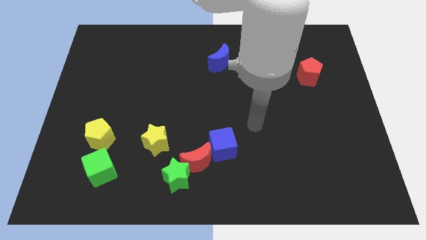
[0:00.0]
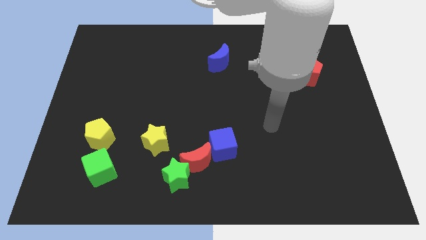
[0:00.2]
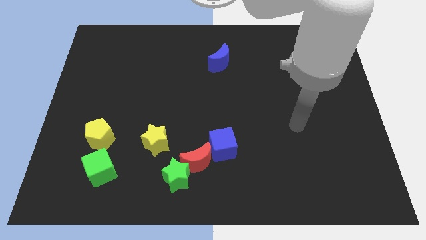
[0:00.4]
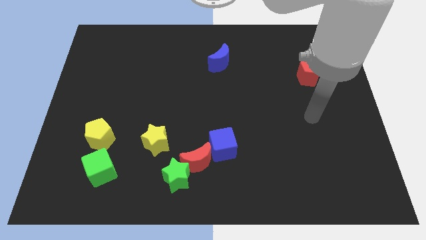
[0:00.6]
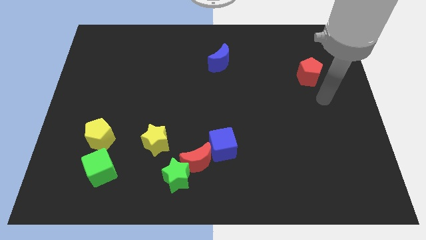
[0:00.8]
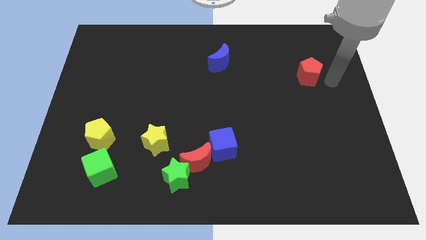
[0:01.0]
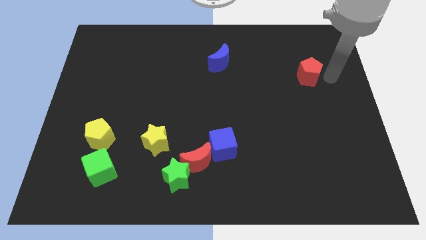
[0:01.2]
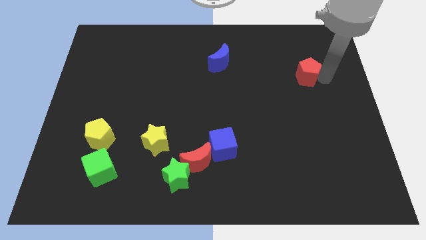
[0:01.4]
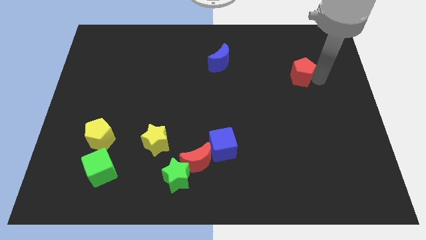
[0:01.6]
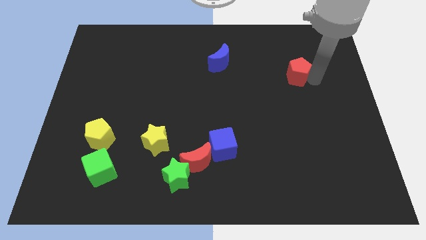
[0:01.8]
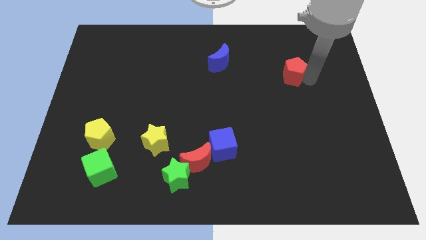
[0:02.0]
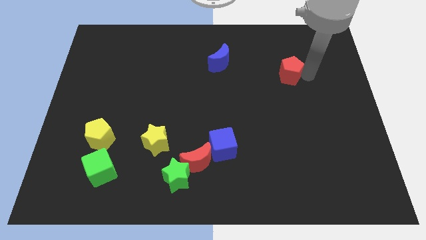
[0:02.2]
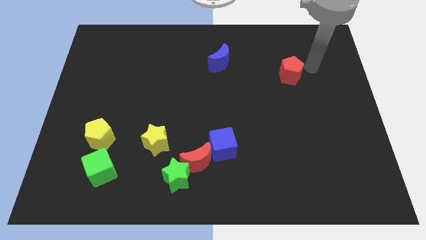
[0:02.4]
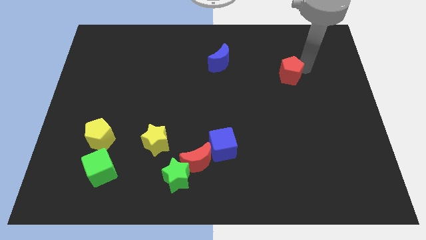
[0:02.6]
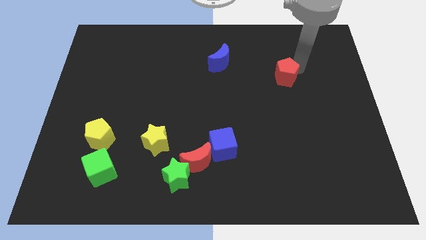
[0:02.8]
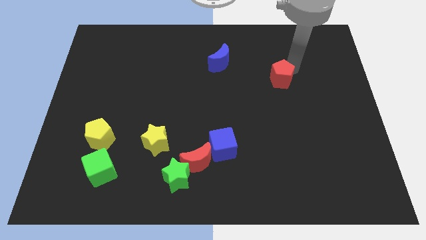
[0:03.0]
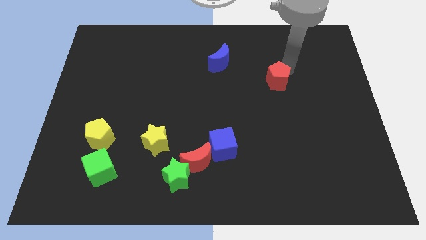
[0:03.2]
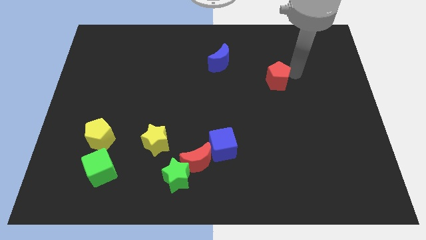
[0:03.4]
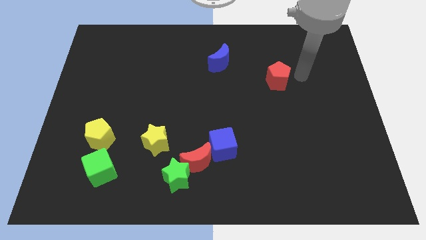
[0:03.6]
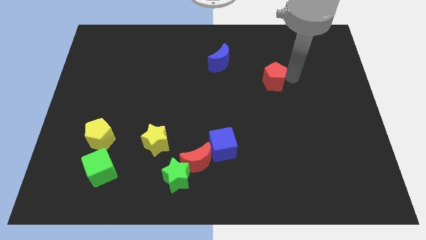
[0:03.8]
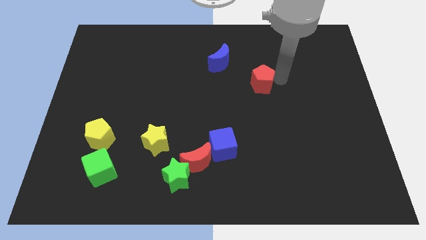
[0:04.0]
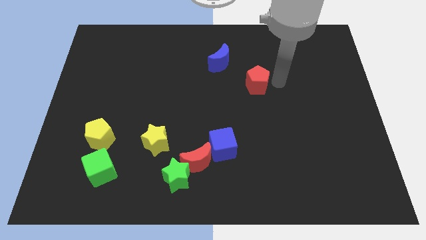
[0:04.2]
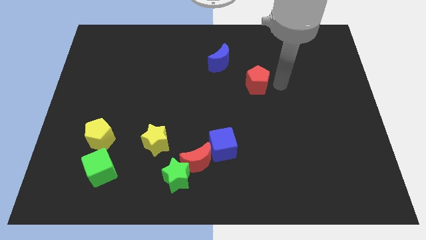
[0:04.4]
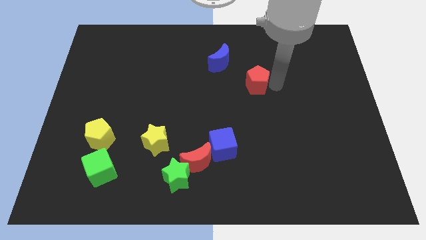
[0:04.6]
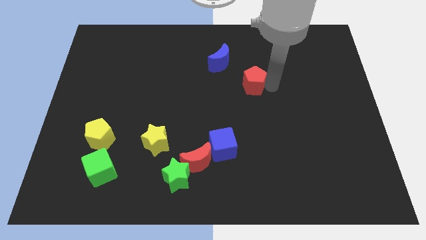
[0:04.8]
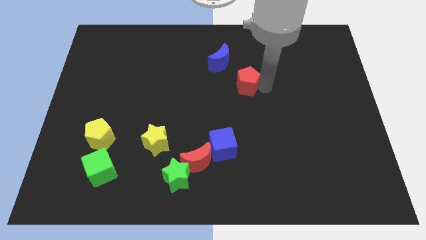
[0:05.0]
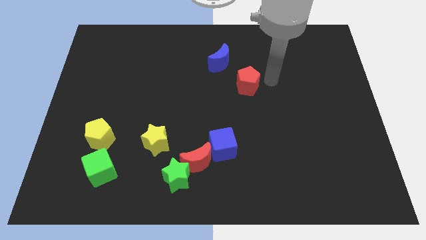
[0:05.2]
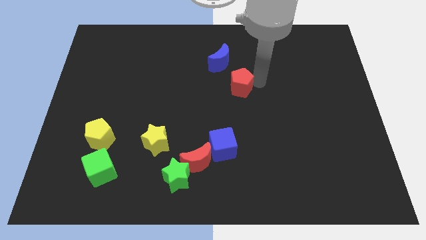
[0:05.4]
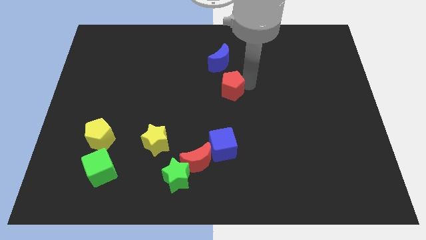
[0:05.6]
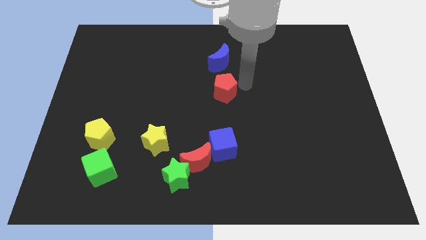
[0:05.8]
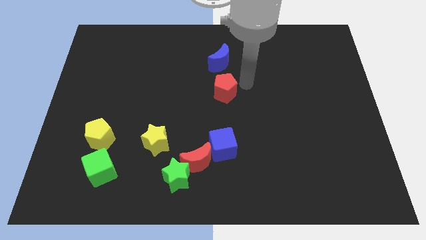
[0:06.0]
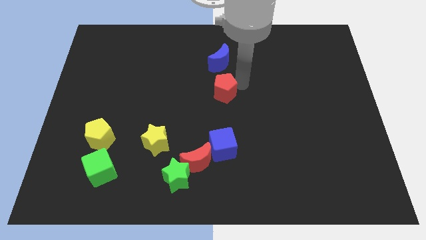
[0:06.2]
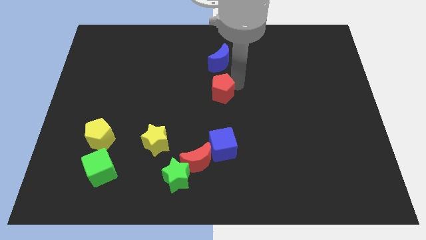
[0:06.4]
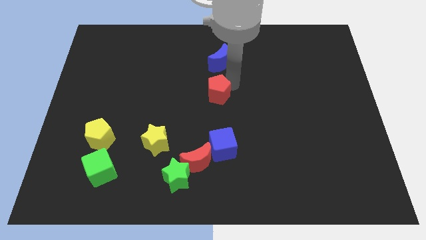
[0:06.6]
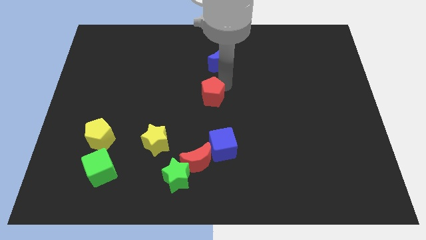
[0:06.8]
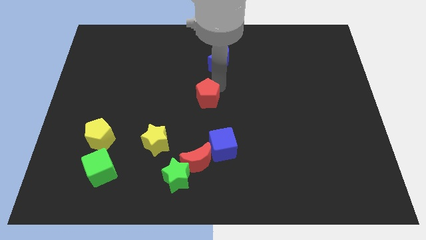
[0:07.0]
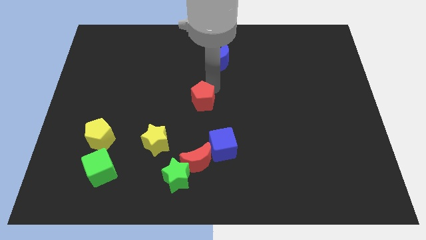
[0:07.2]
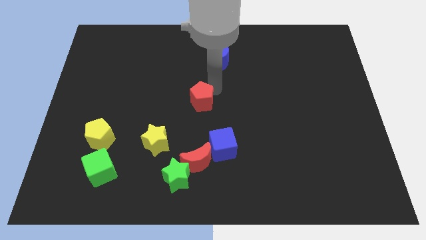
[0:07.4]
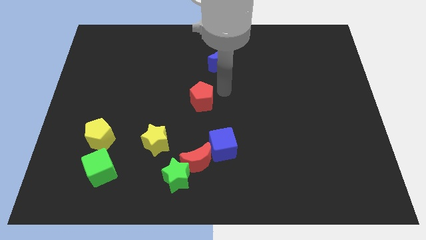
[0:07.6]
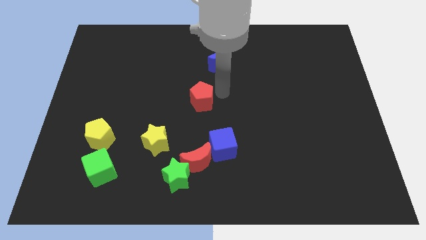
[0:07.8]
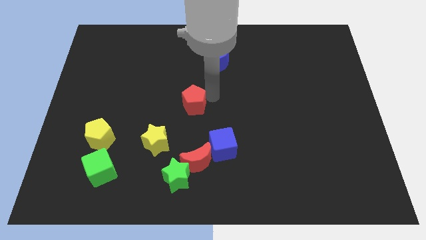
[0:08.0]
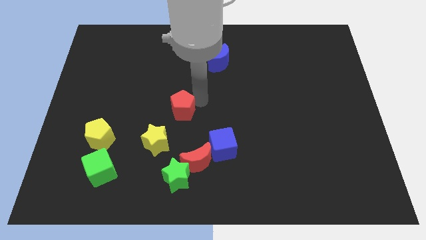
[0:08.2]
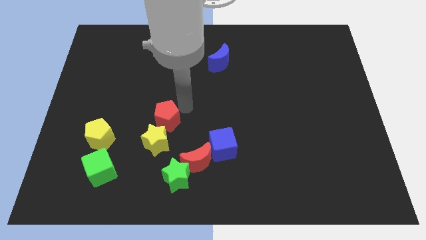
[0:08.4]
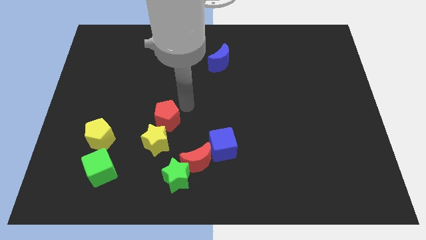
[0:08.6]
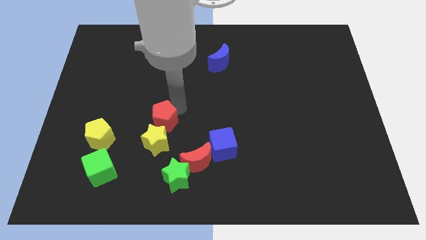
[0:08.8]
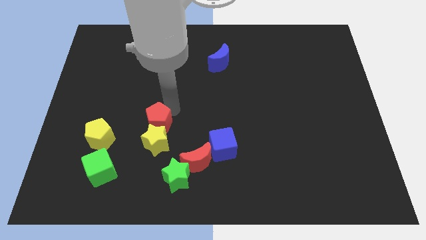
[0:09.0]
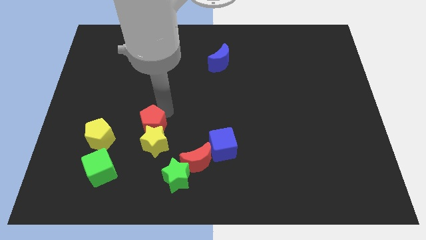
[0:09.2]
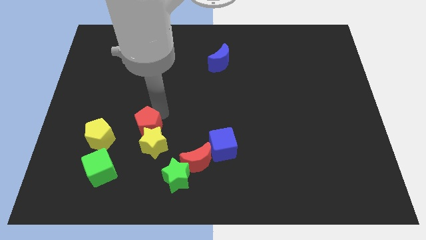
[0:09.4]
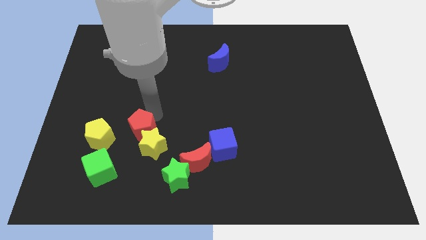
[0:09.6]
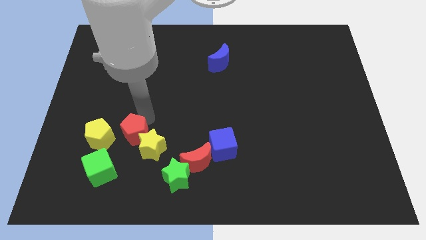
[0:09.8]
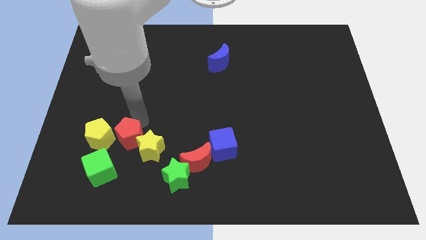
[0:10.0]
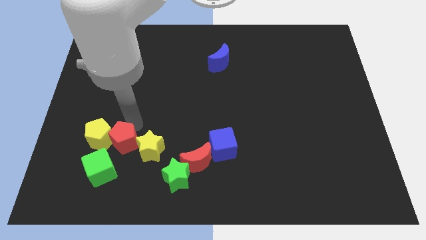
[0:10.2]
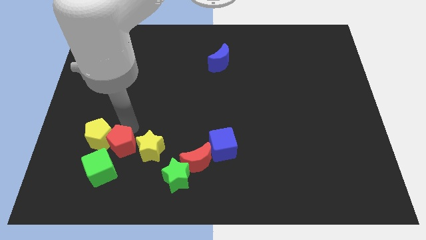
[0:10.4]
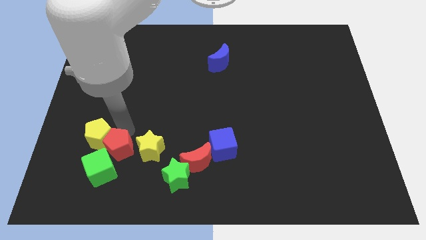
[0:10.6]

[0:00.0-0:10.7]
move the red pentagon next to the green cube

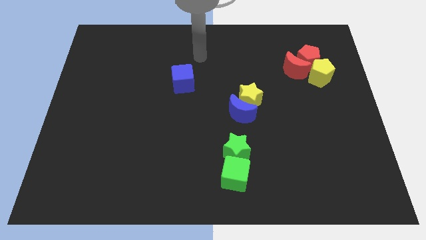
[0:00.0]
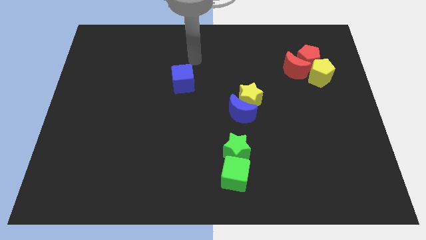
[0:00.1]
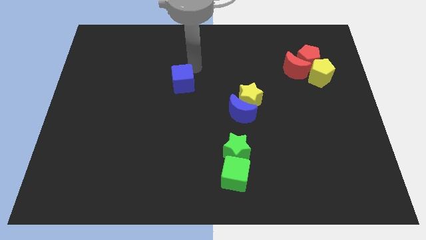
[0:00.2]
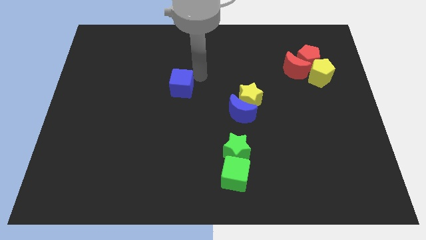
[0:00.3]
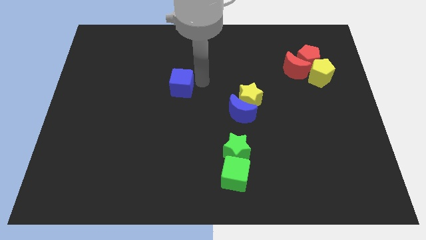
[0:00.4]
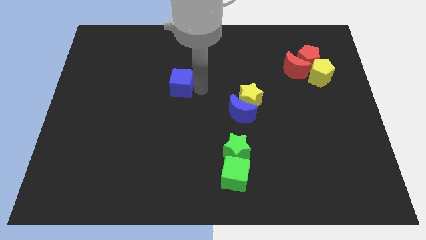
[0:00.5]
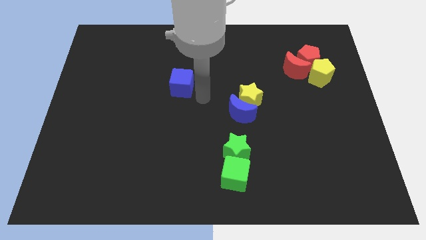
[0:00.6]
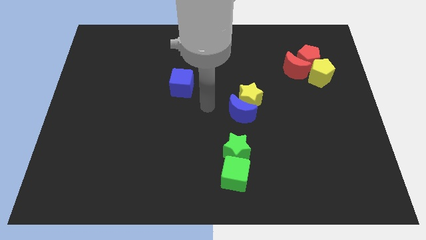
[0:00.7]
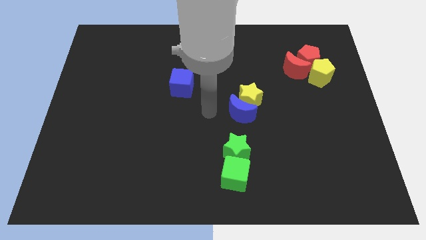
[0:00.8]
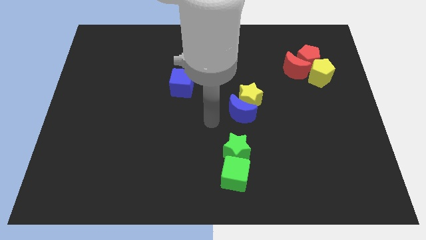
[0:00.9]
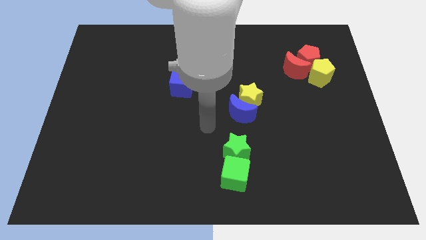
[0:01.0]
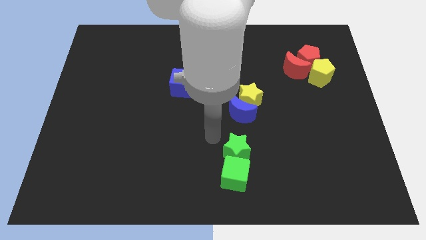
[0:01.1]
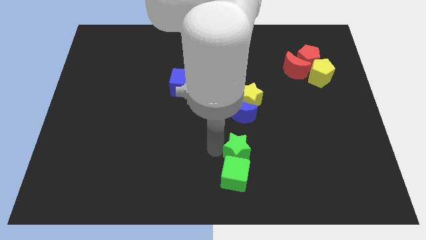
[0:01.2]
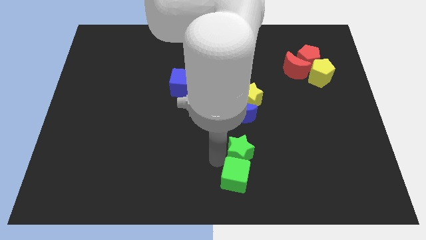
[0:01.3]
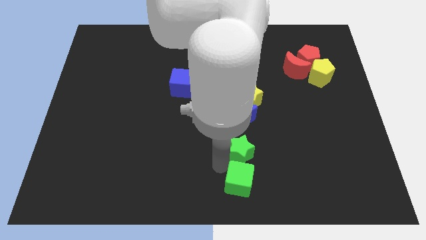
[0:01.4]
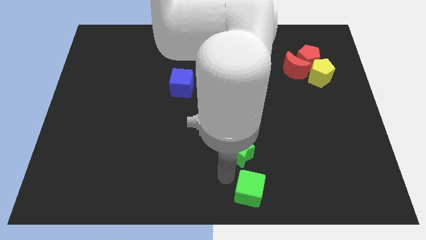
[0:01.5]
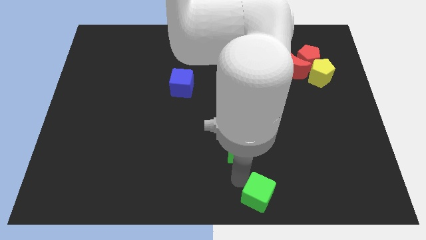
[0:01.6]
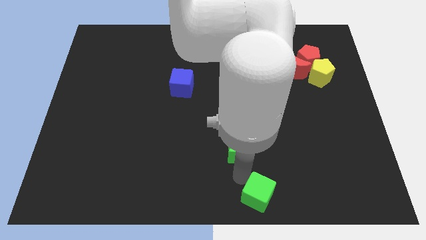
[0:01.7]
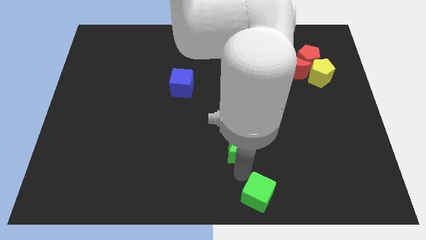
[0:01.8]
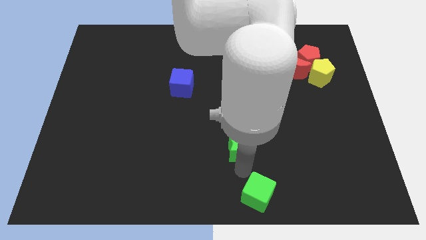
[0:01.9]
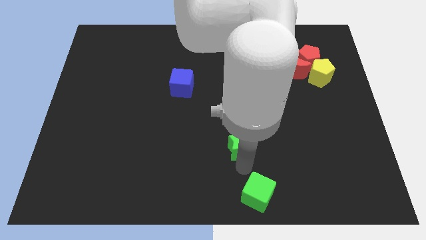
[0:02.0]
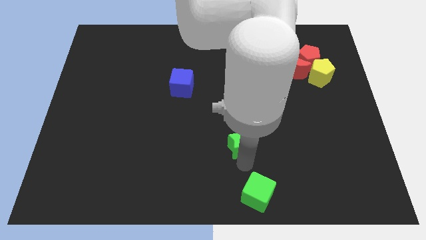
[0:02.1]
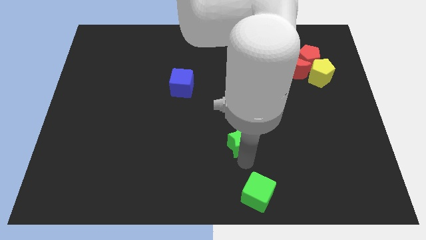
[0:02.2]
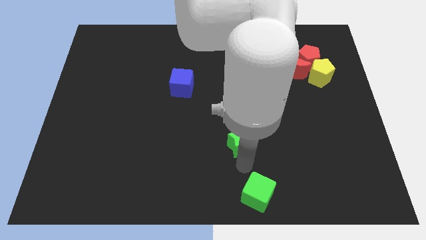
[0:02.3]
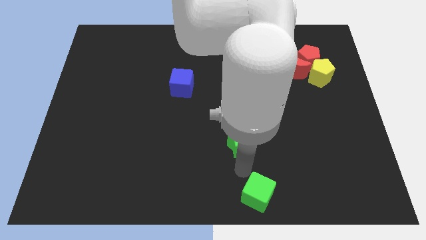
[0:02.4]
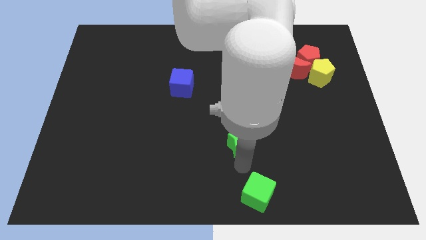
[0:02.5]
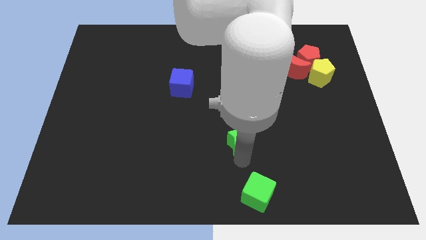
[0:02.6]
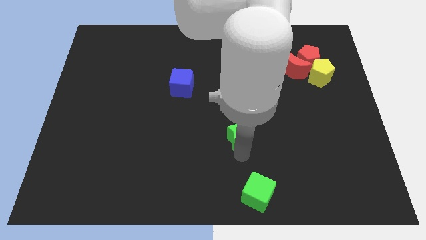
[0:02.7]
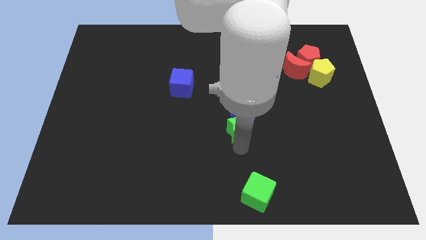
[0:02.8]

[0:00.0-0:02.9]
move the green star next to the blue moon
